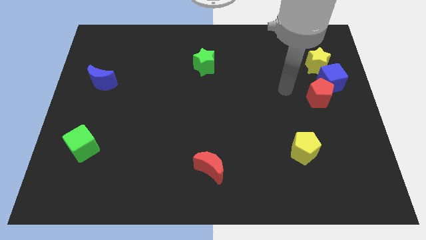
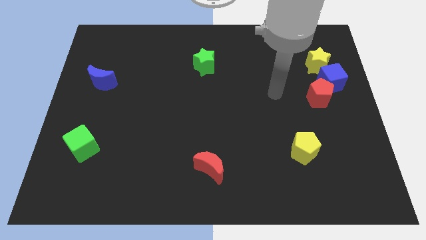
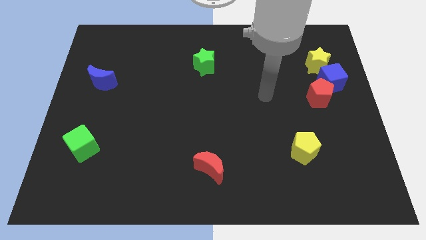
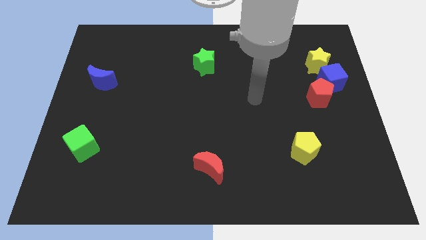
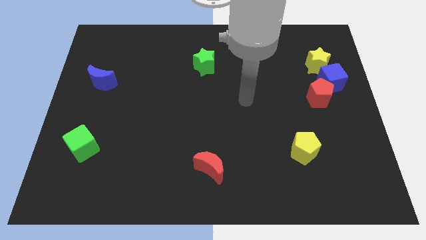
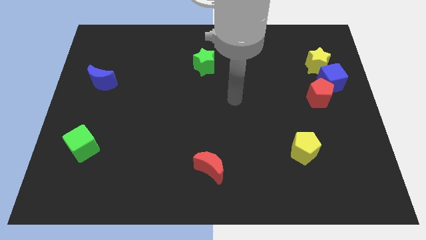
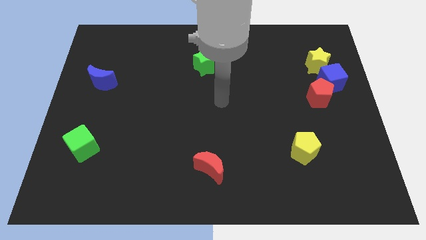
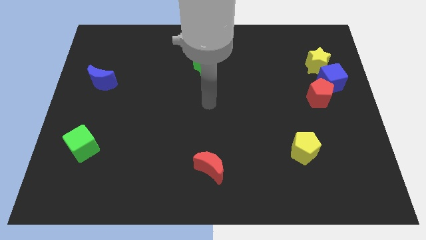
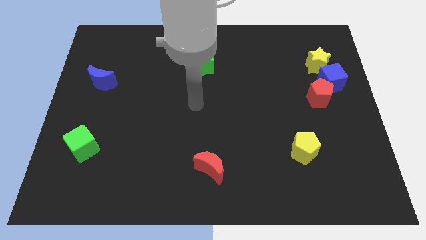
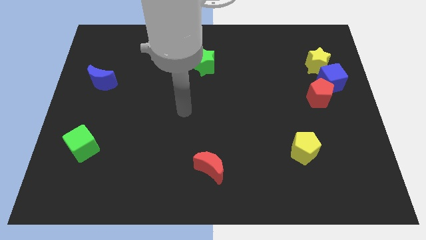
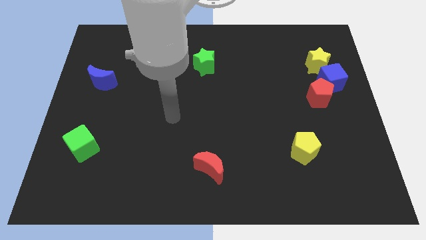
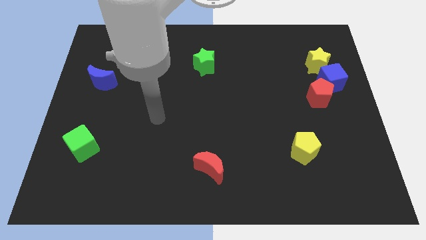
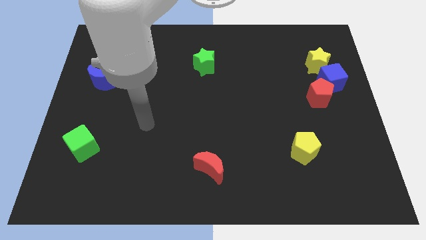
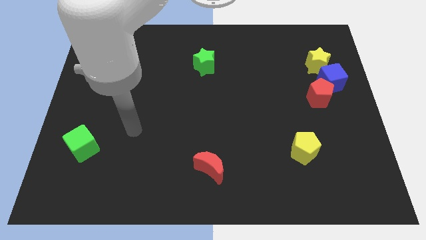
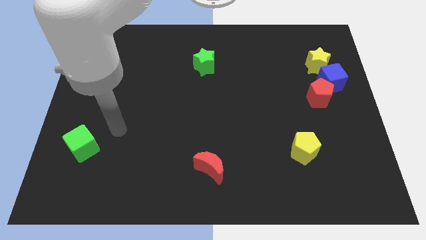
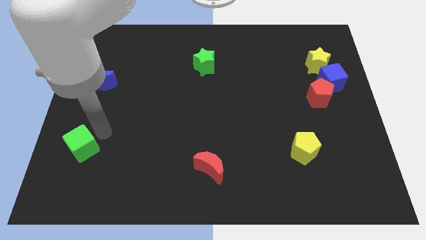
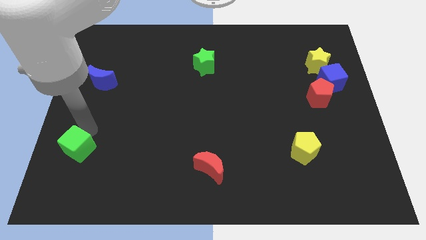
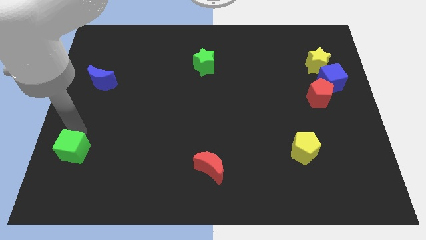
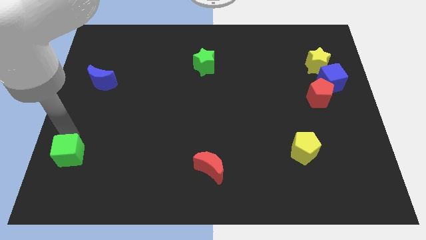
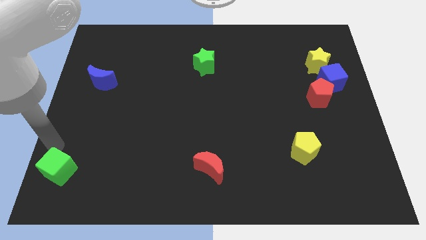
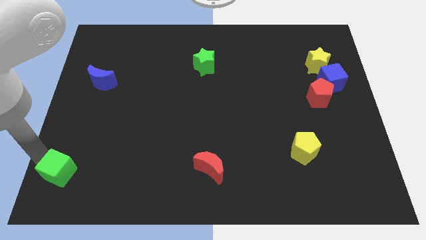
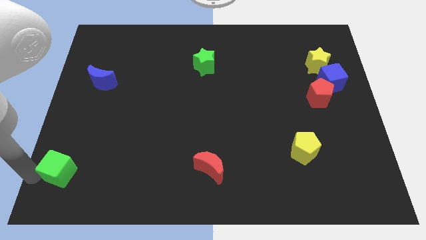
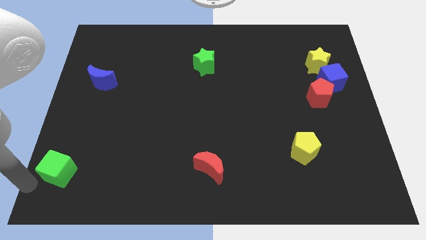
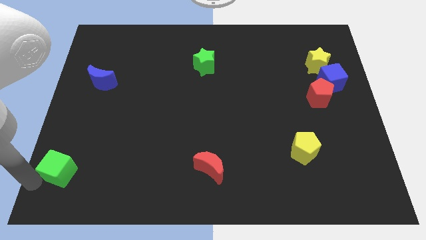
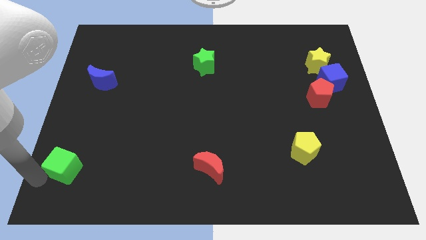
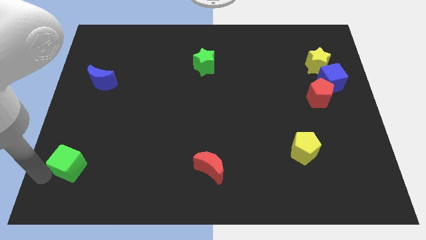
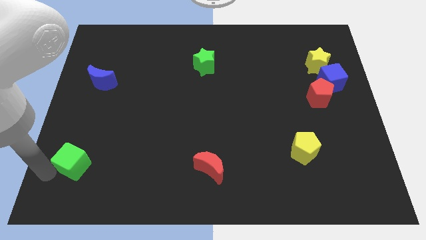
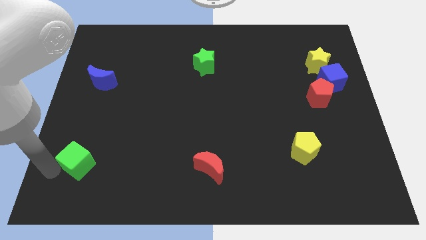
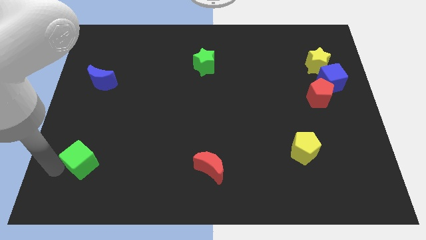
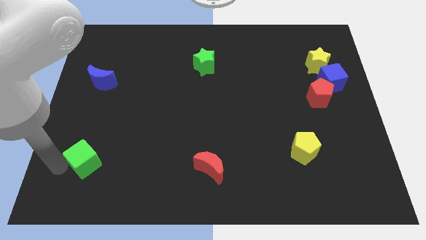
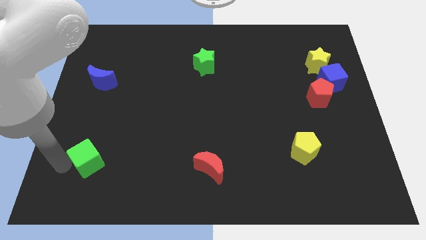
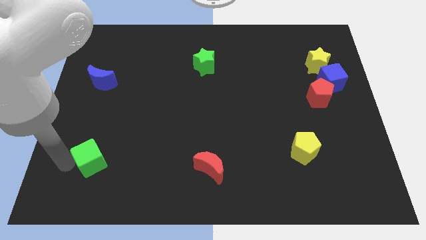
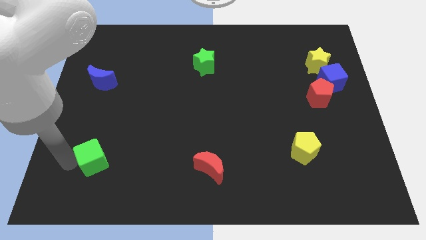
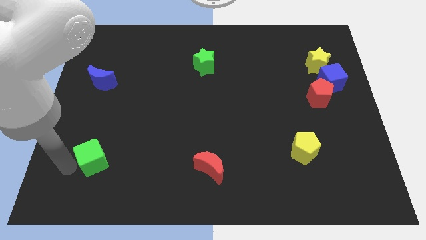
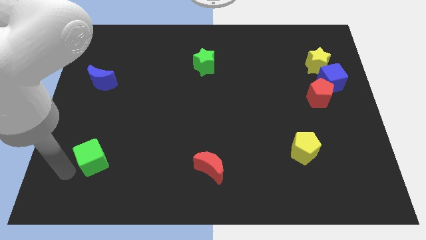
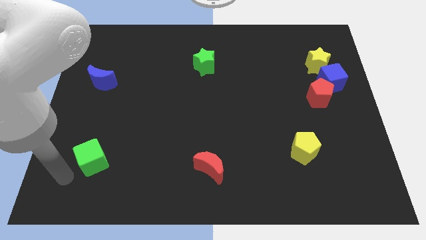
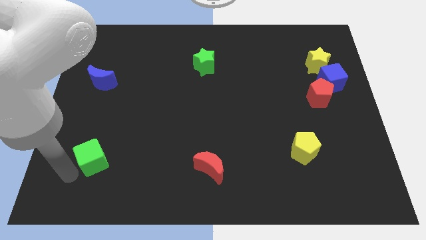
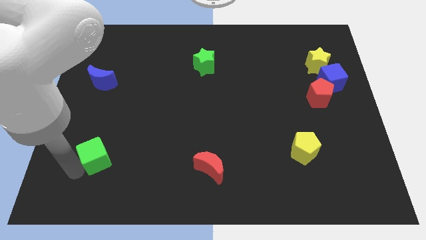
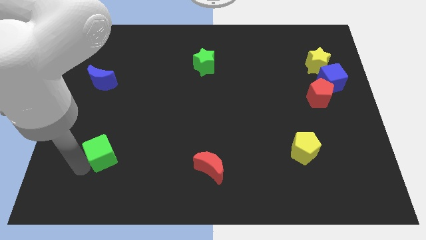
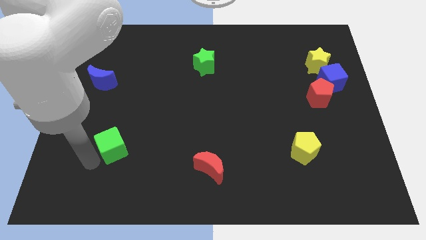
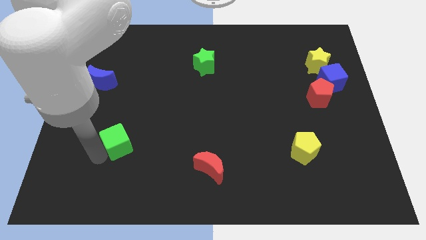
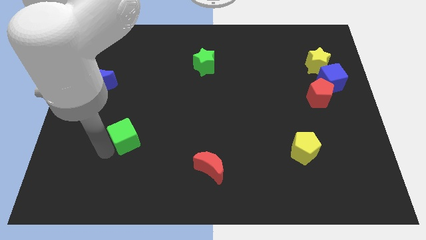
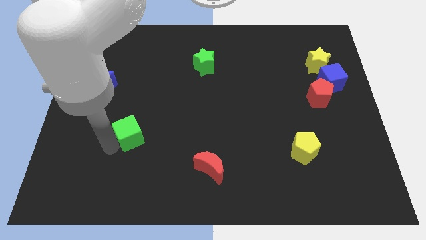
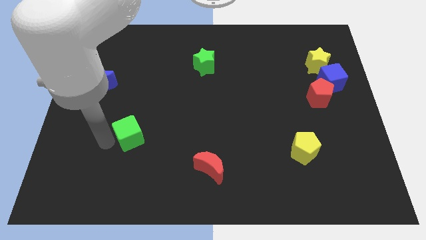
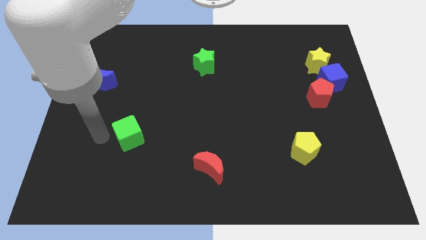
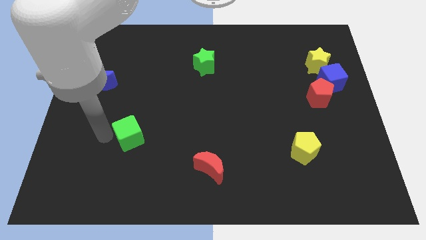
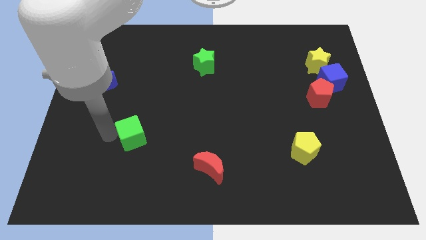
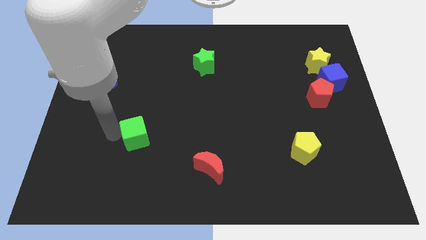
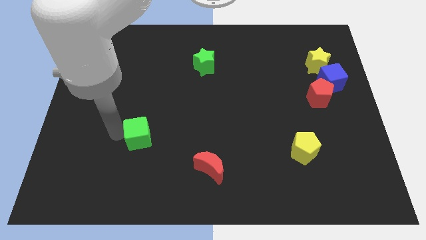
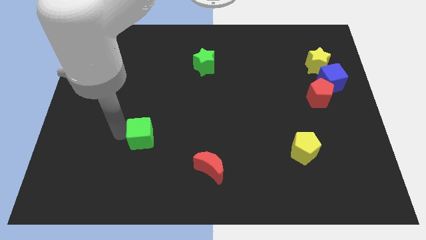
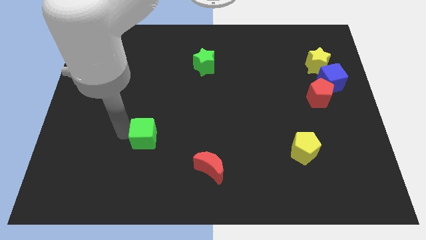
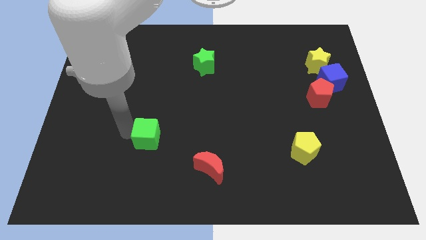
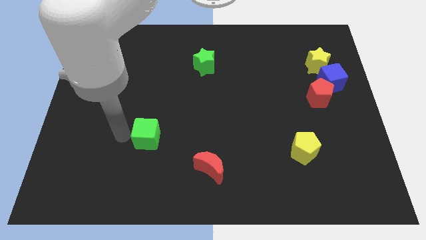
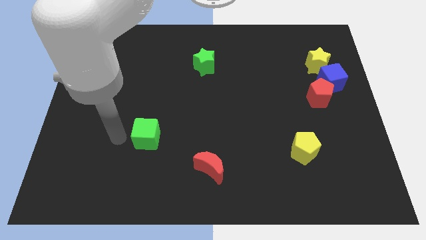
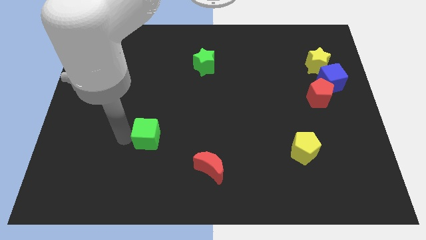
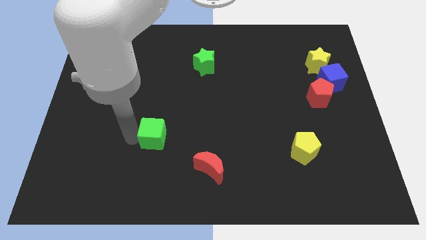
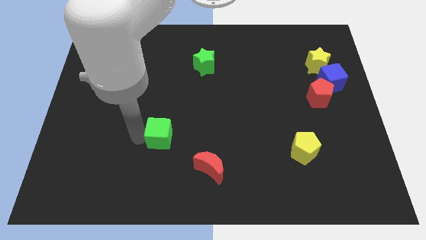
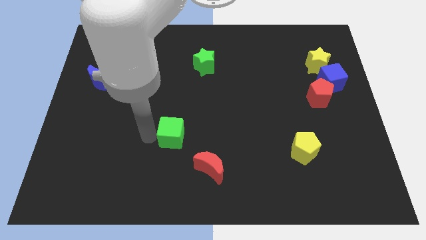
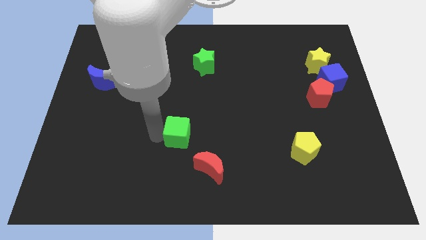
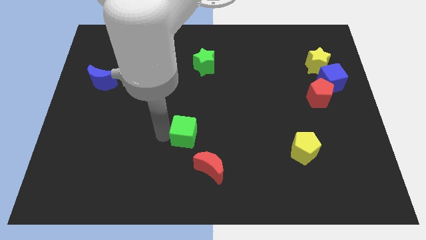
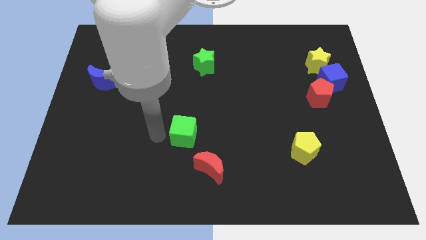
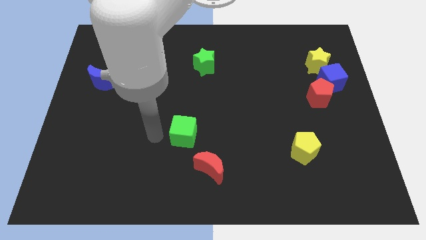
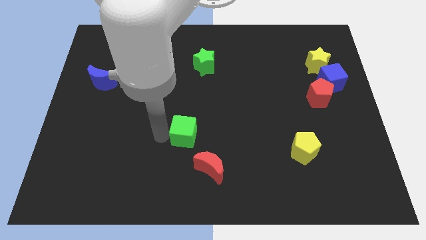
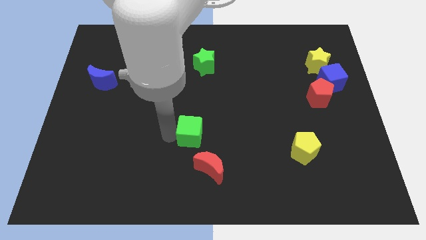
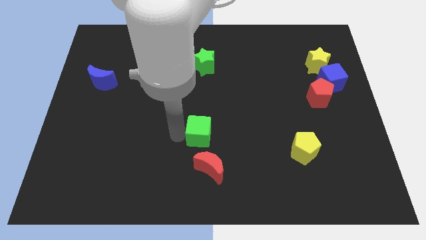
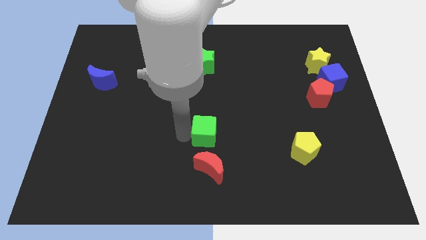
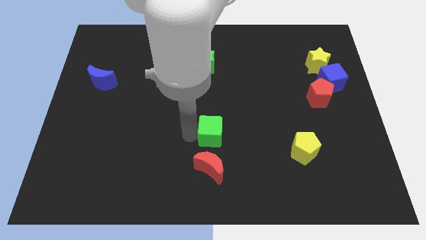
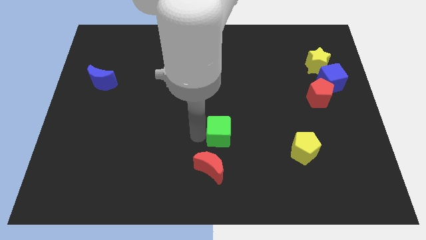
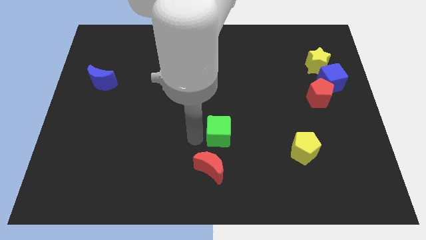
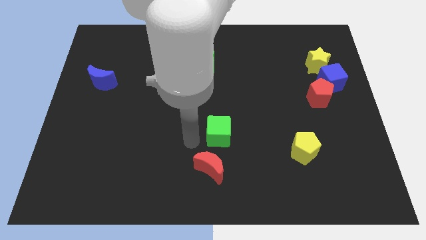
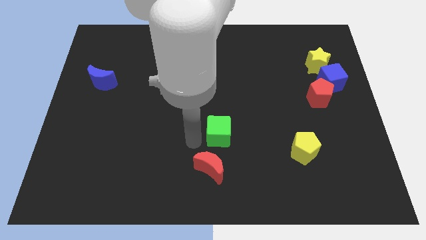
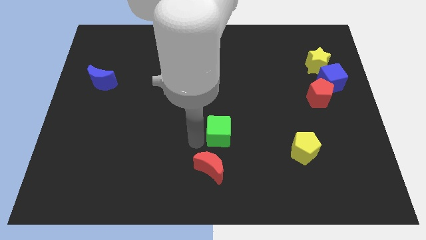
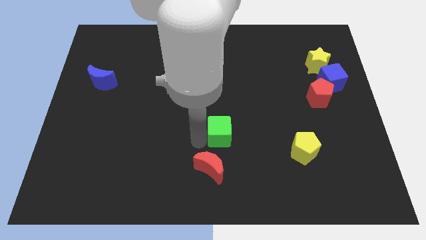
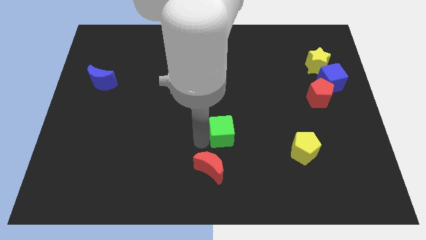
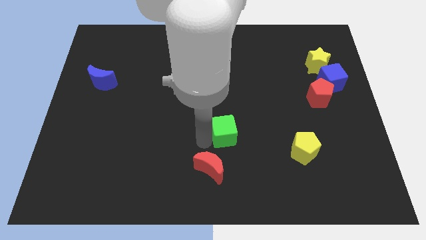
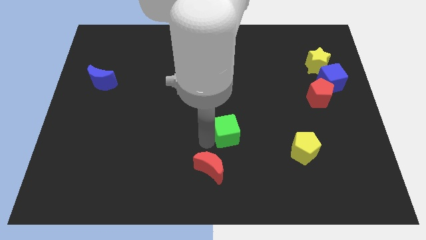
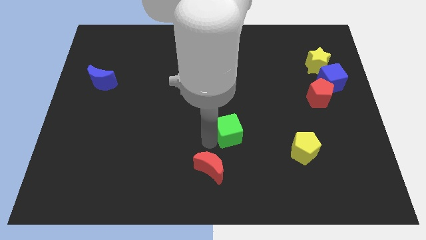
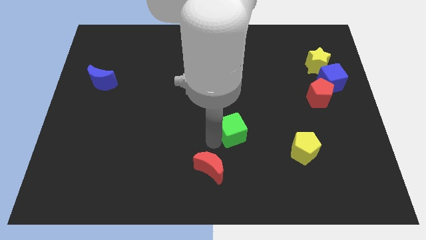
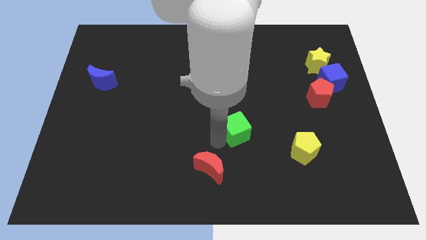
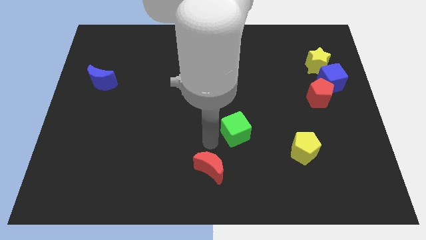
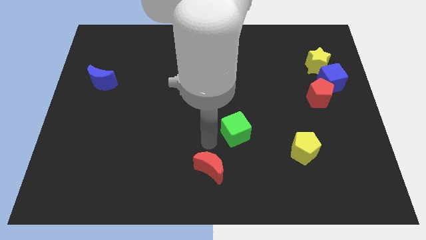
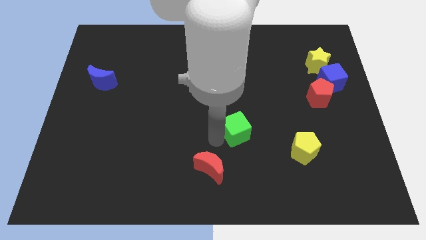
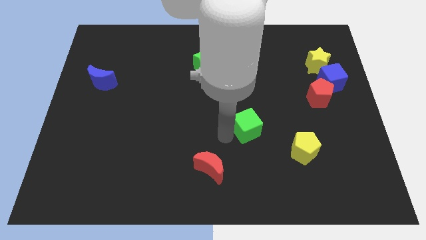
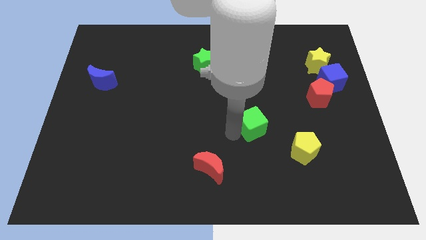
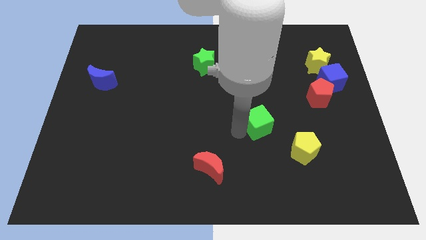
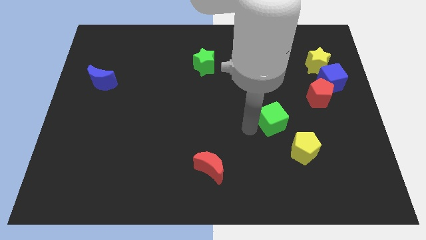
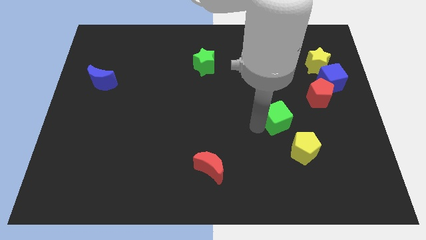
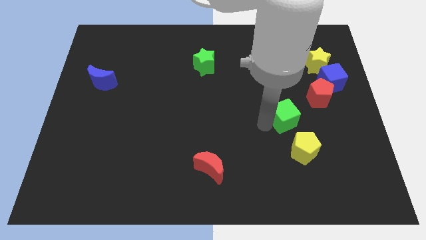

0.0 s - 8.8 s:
push the green cube to the top of the yellow pentagon
